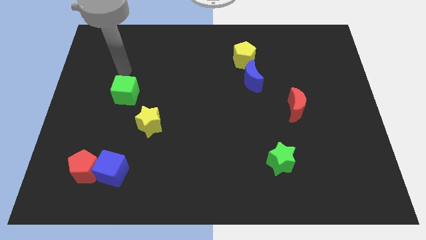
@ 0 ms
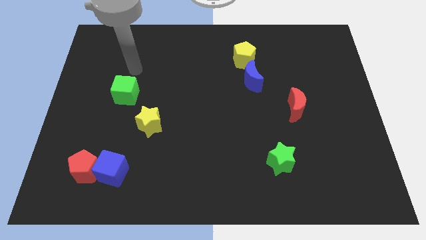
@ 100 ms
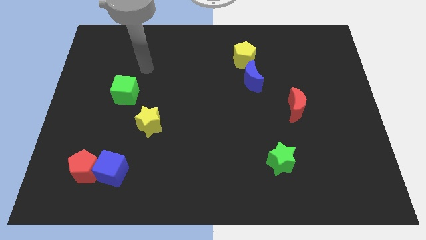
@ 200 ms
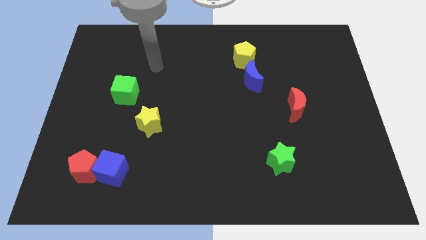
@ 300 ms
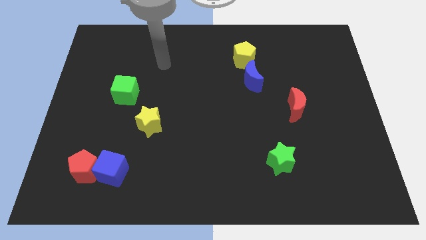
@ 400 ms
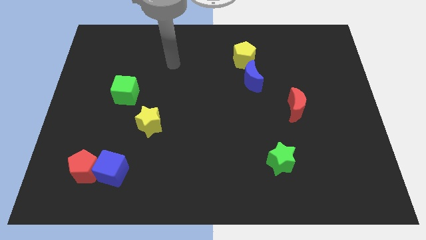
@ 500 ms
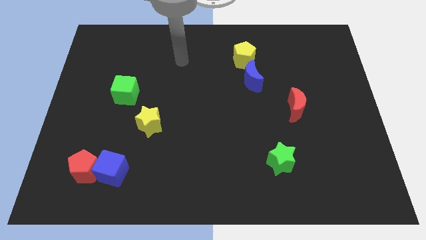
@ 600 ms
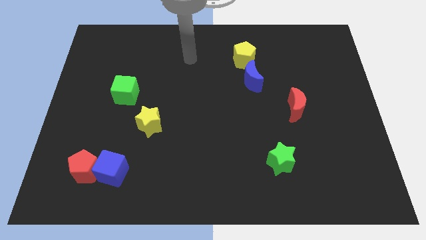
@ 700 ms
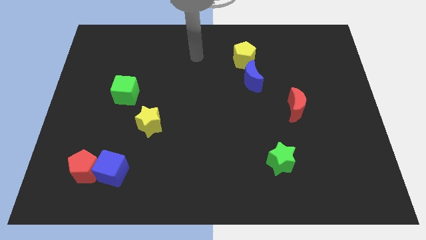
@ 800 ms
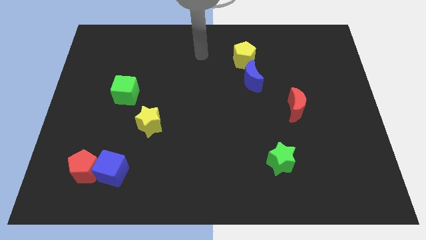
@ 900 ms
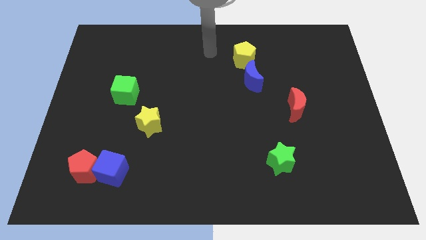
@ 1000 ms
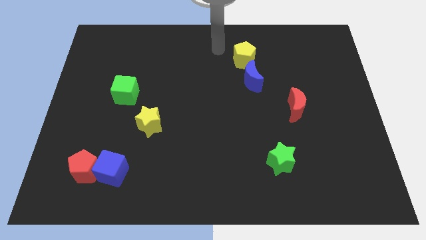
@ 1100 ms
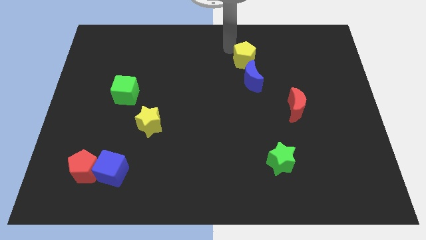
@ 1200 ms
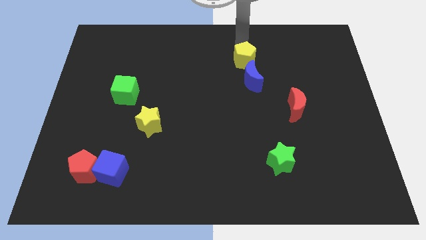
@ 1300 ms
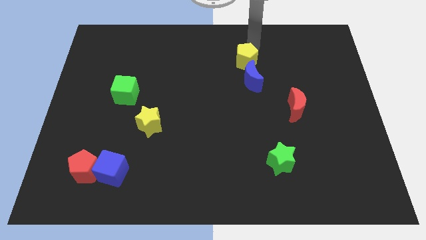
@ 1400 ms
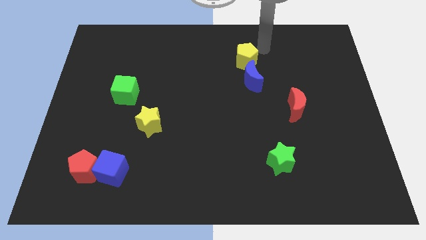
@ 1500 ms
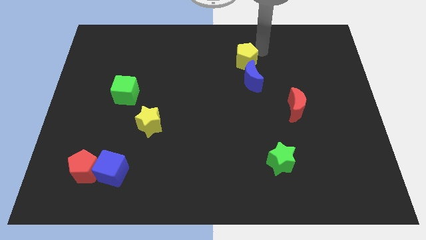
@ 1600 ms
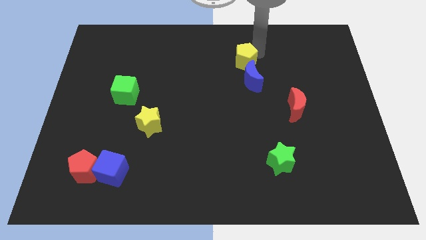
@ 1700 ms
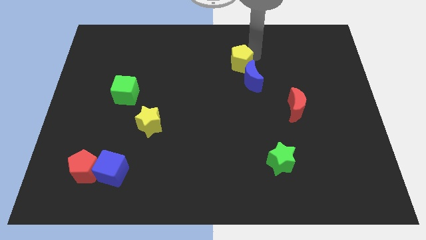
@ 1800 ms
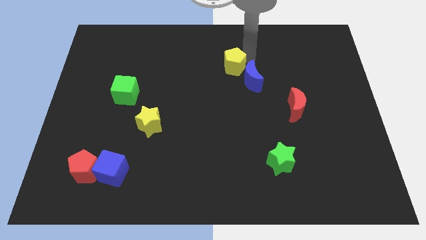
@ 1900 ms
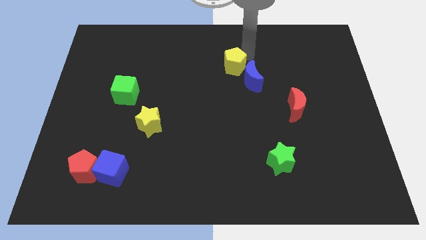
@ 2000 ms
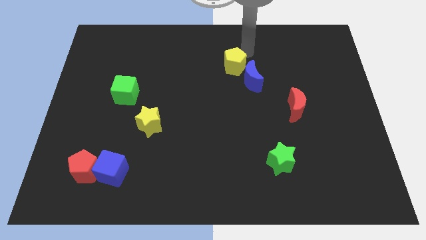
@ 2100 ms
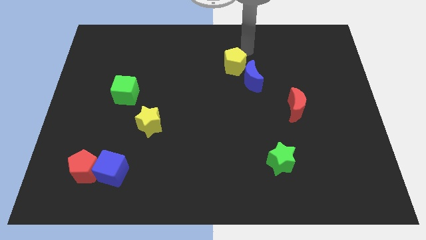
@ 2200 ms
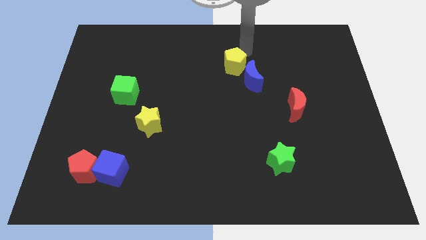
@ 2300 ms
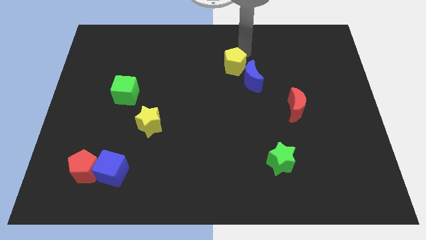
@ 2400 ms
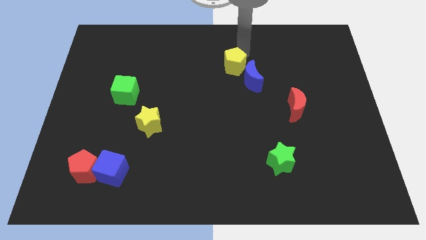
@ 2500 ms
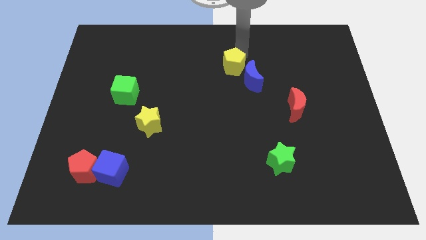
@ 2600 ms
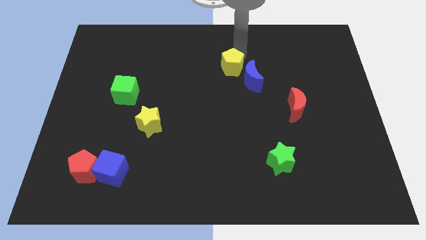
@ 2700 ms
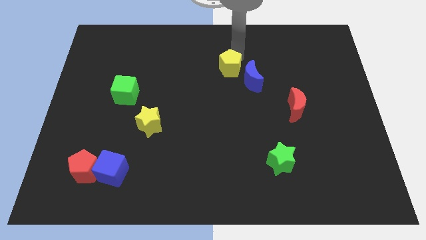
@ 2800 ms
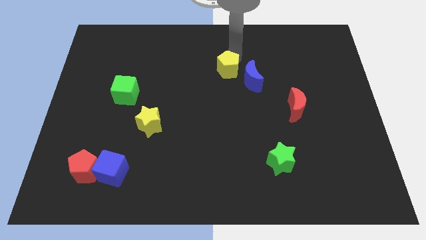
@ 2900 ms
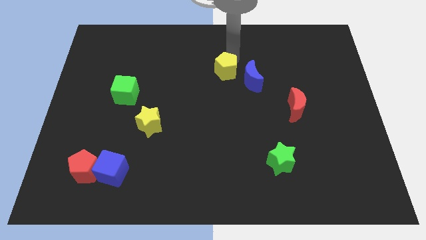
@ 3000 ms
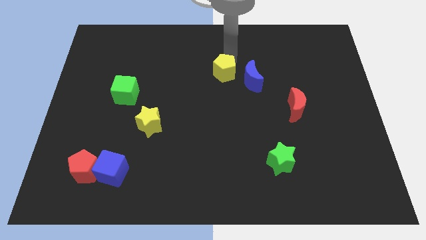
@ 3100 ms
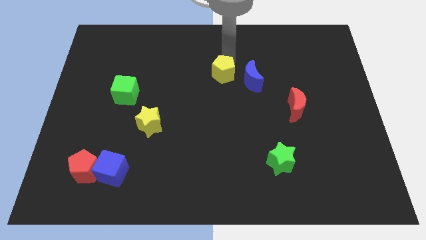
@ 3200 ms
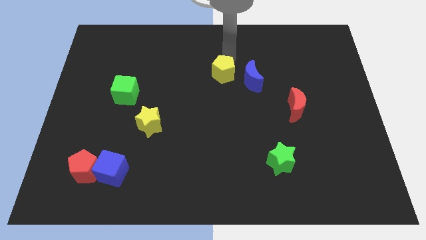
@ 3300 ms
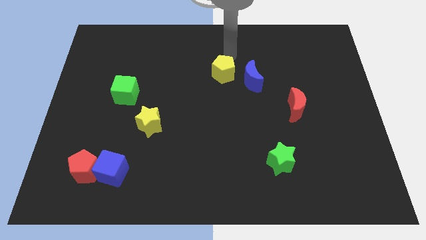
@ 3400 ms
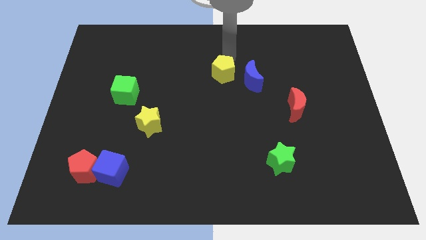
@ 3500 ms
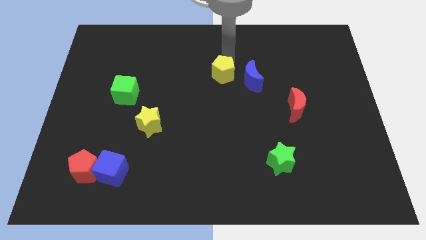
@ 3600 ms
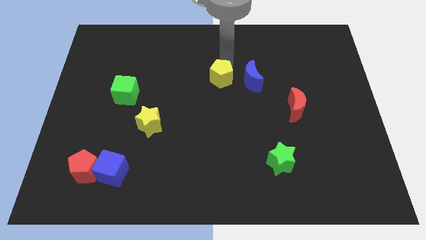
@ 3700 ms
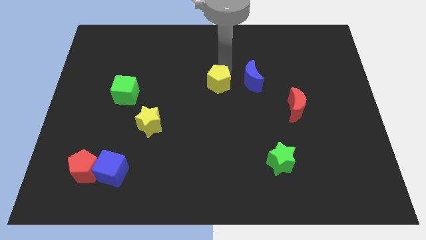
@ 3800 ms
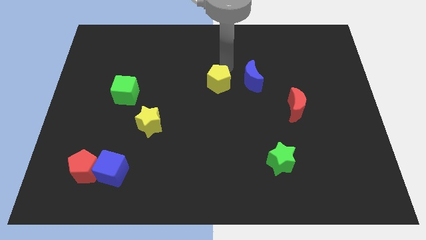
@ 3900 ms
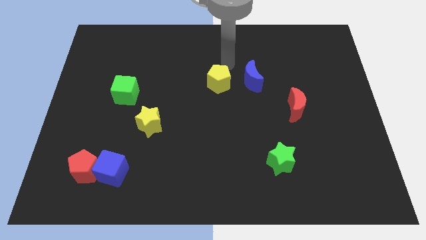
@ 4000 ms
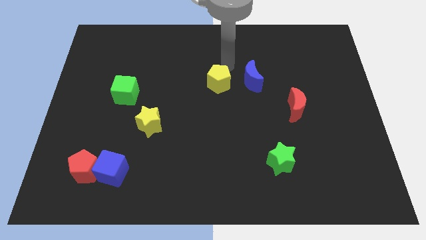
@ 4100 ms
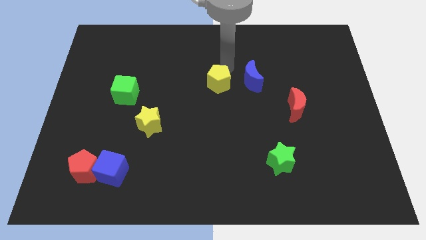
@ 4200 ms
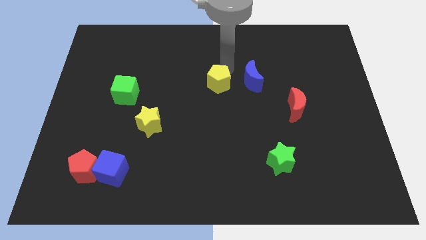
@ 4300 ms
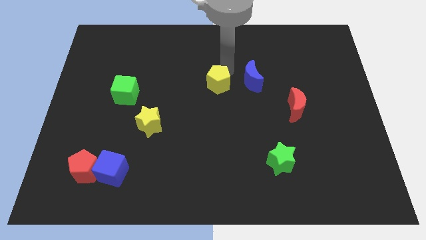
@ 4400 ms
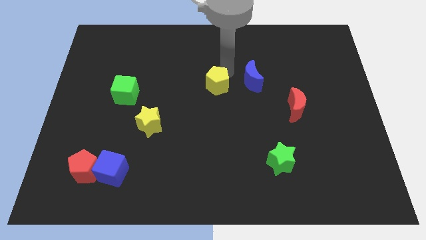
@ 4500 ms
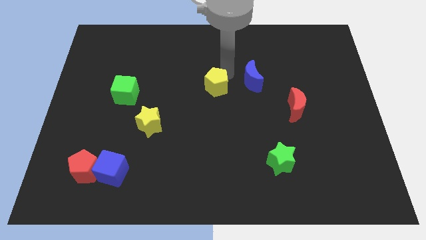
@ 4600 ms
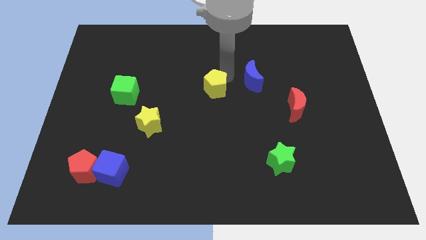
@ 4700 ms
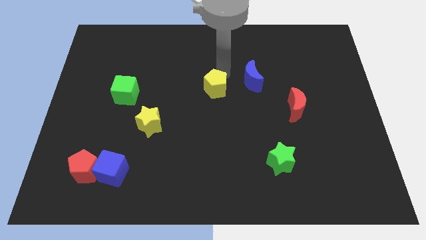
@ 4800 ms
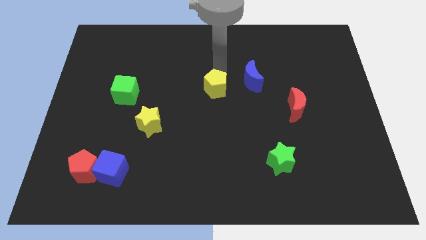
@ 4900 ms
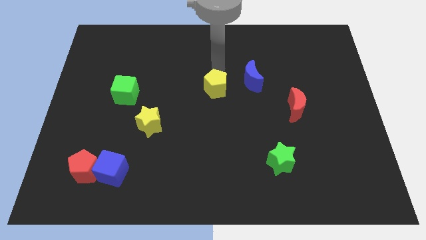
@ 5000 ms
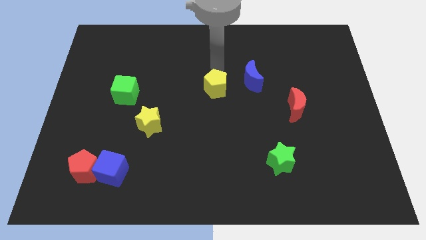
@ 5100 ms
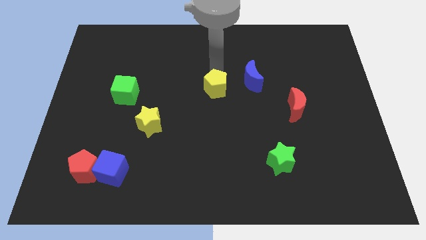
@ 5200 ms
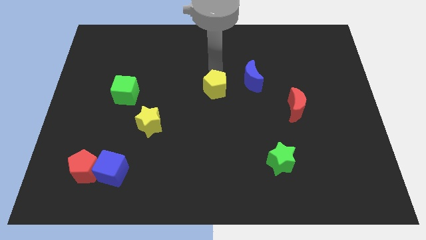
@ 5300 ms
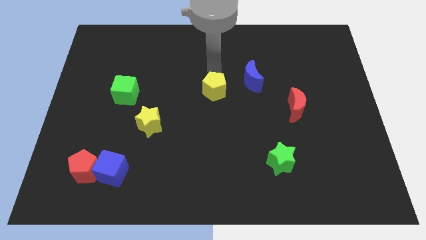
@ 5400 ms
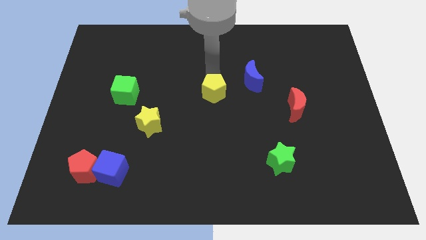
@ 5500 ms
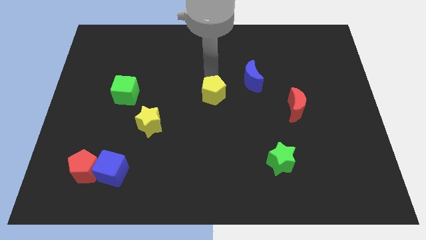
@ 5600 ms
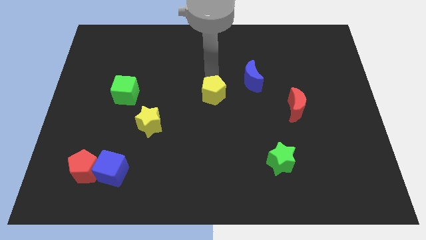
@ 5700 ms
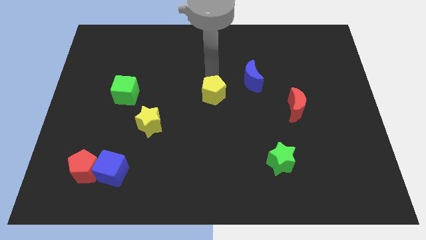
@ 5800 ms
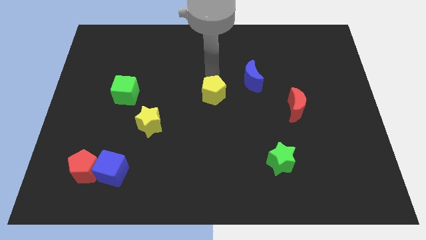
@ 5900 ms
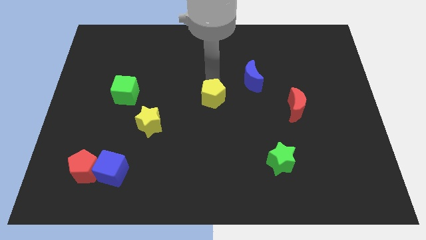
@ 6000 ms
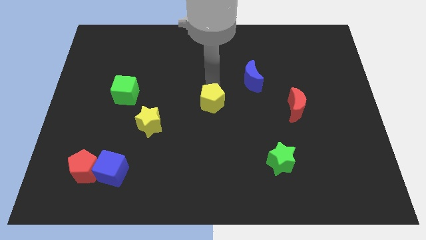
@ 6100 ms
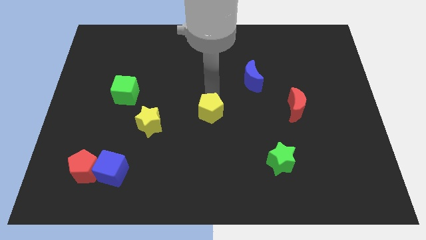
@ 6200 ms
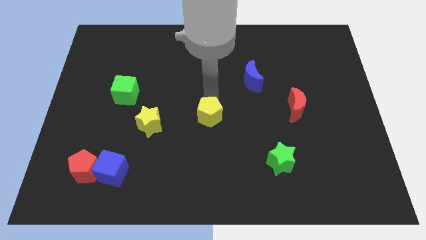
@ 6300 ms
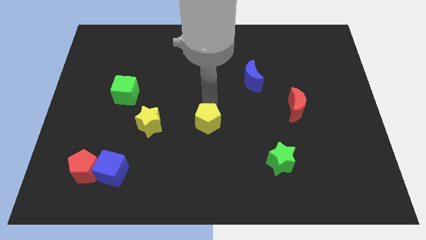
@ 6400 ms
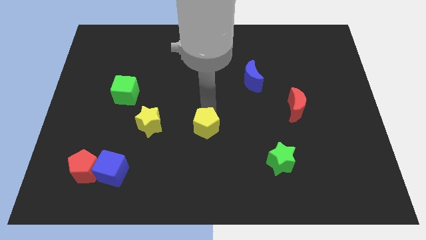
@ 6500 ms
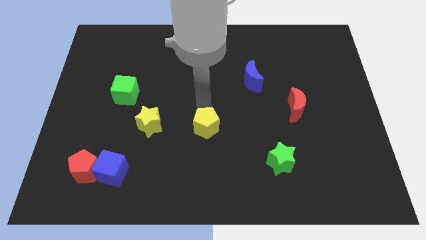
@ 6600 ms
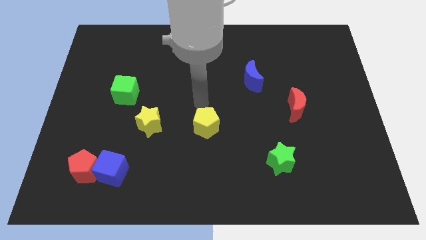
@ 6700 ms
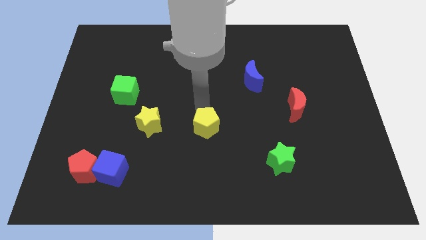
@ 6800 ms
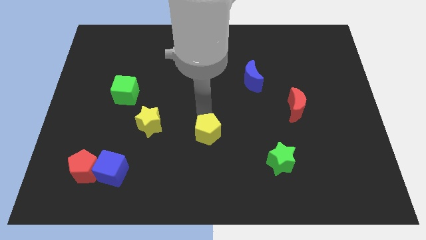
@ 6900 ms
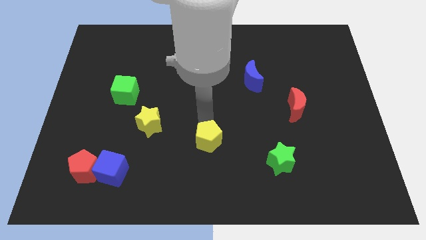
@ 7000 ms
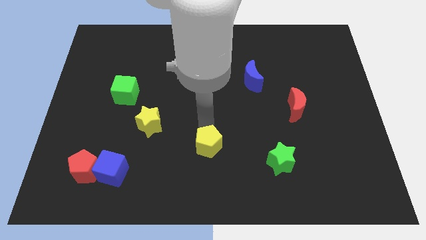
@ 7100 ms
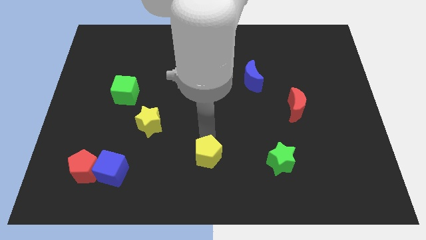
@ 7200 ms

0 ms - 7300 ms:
push the yellow pentagon to the bottom

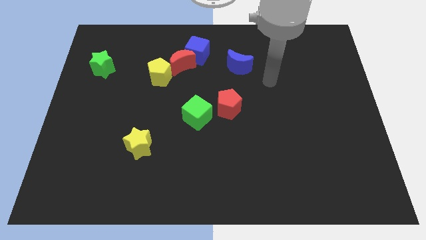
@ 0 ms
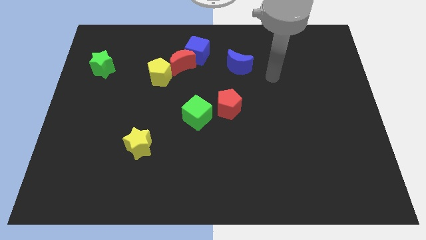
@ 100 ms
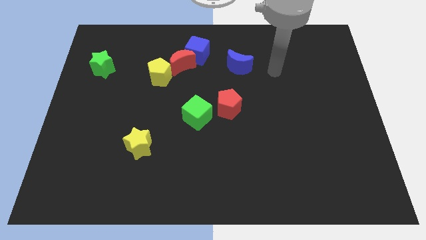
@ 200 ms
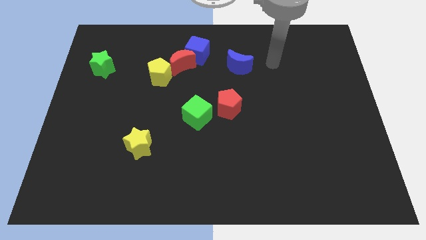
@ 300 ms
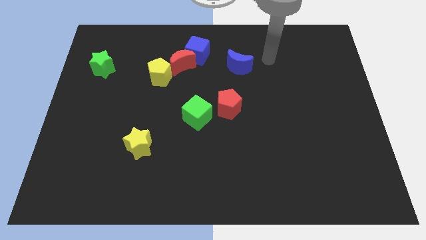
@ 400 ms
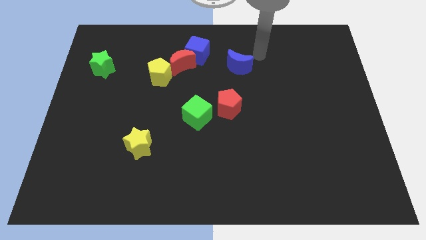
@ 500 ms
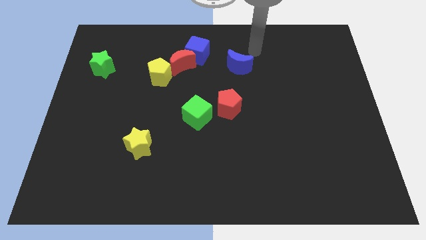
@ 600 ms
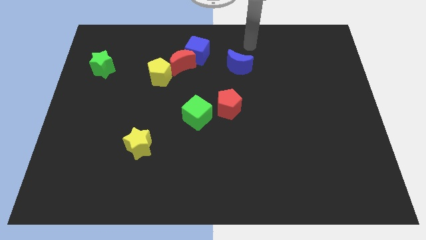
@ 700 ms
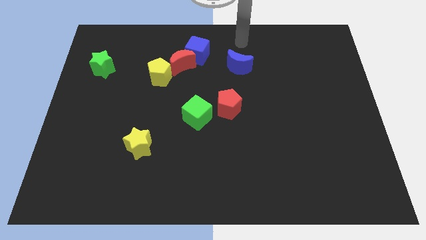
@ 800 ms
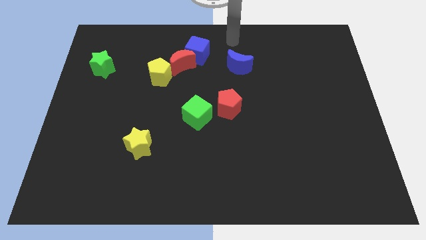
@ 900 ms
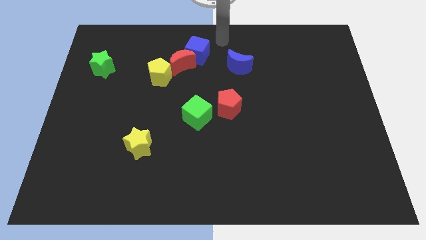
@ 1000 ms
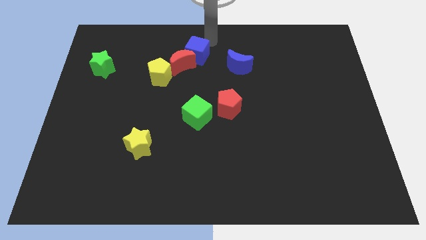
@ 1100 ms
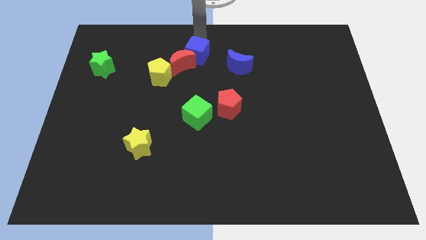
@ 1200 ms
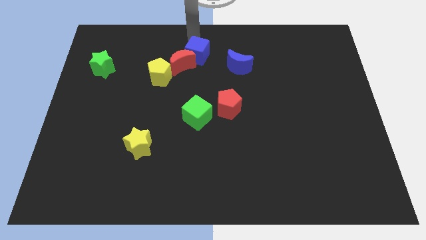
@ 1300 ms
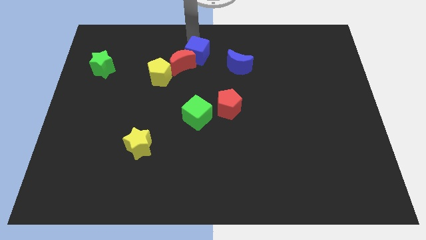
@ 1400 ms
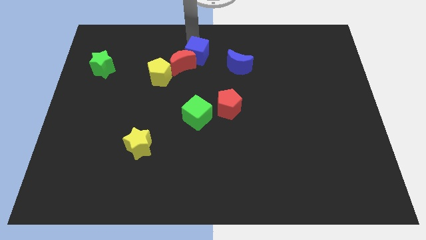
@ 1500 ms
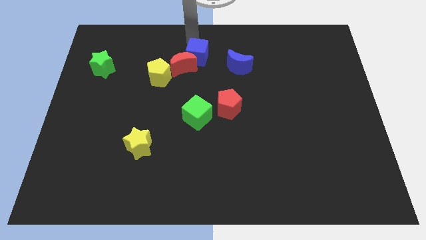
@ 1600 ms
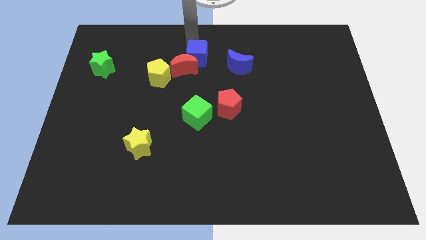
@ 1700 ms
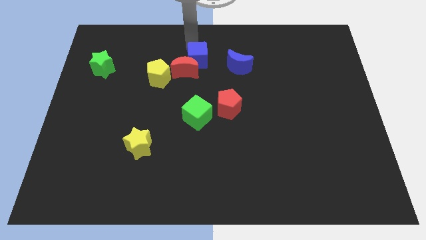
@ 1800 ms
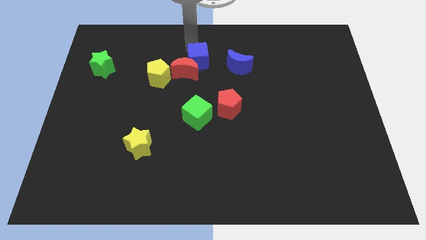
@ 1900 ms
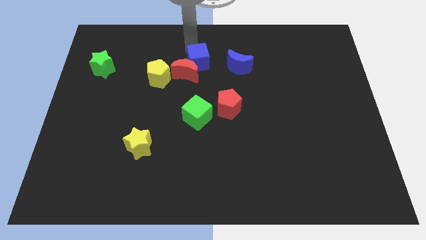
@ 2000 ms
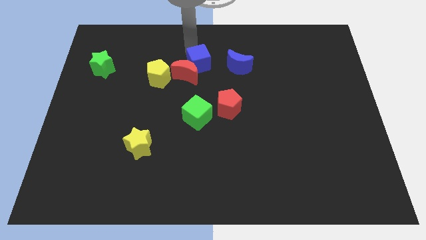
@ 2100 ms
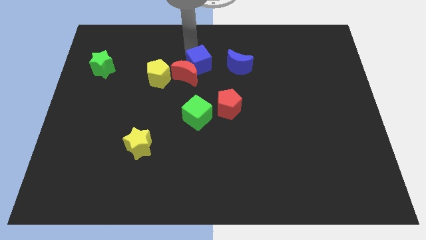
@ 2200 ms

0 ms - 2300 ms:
put the blue cube to the center
